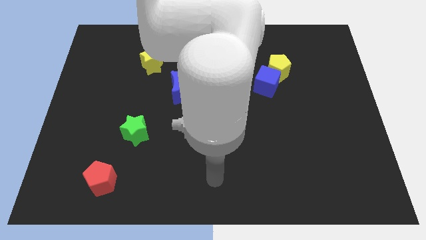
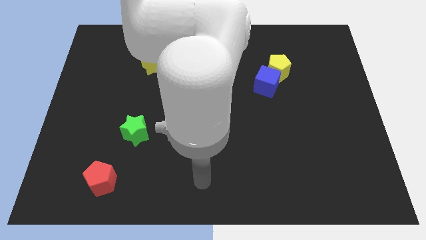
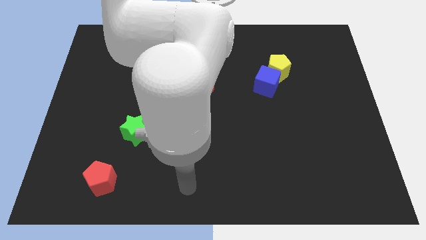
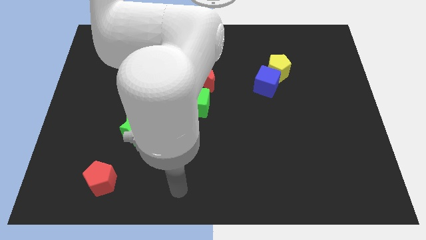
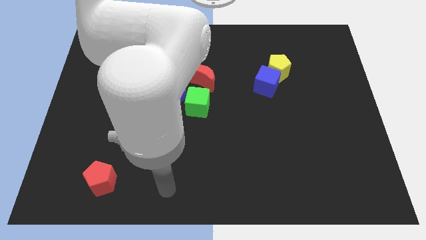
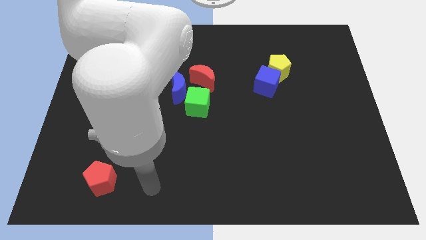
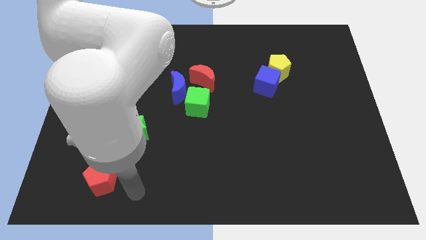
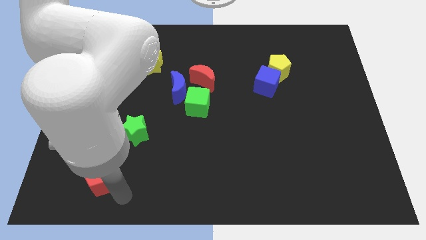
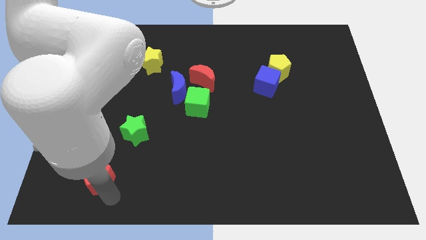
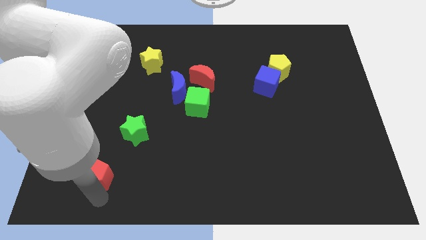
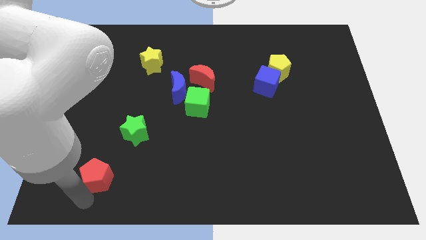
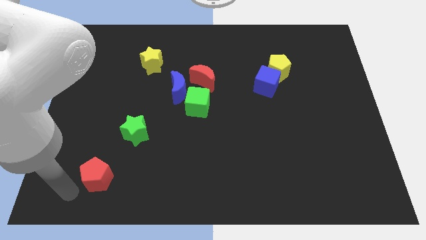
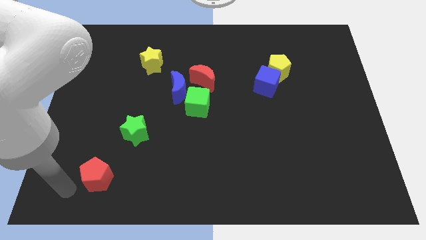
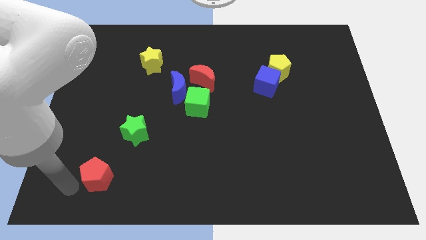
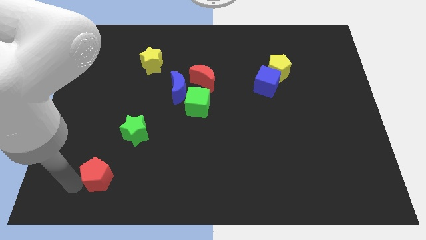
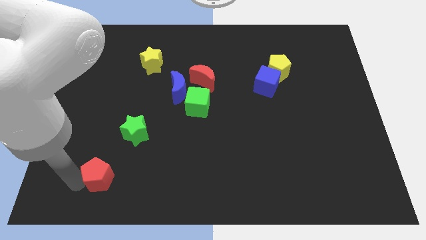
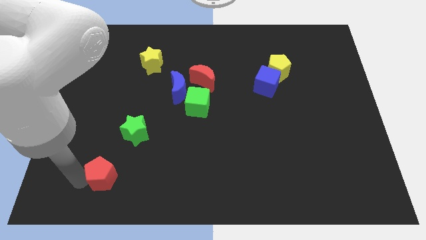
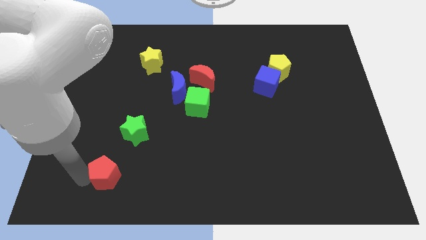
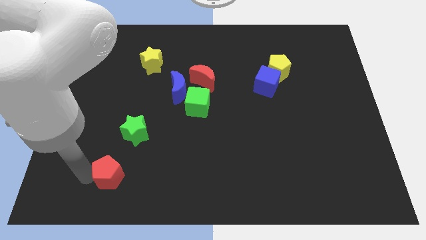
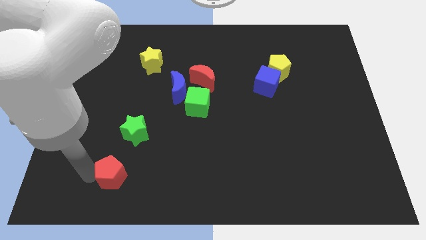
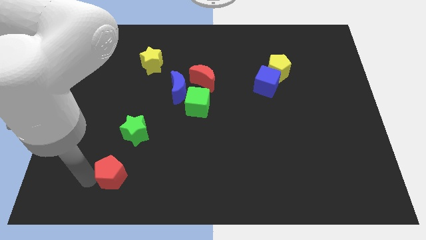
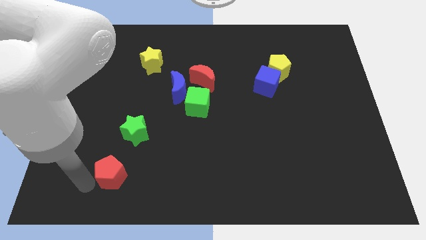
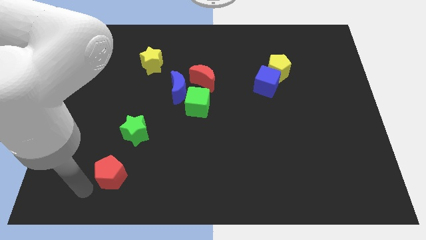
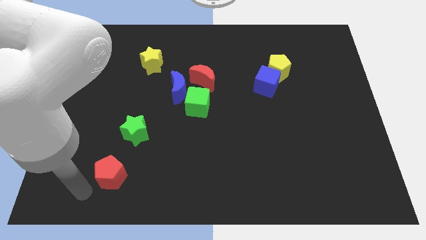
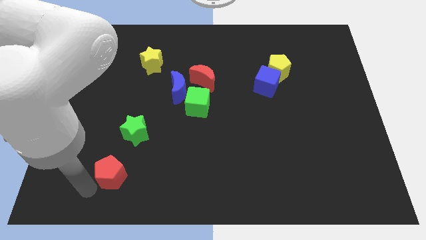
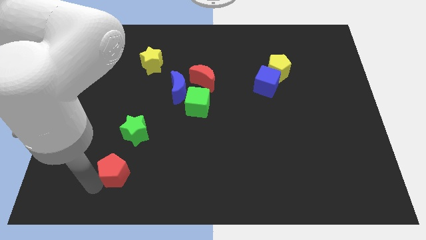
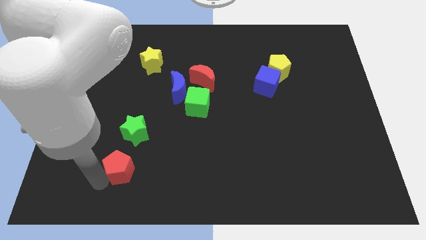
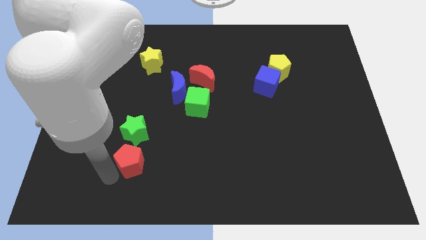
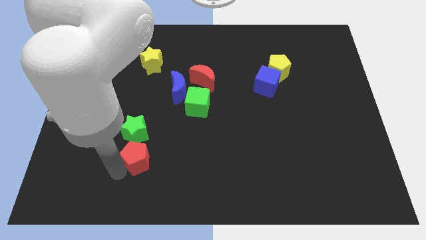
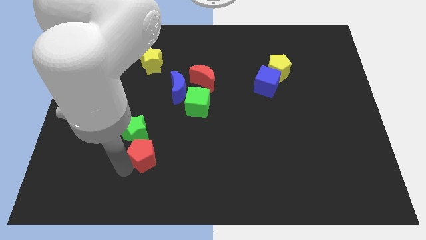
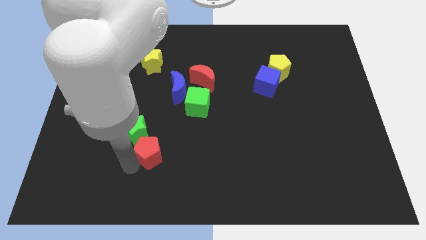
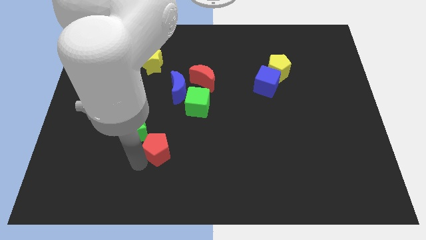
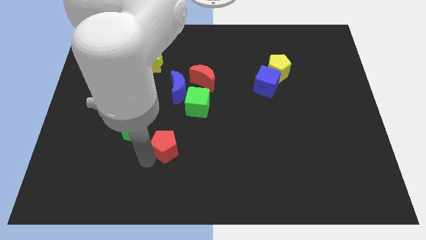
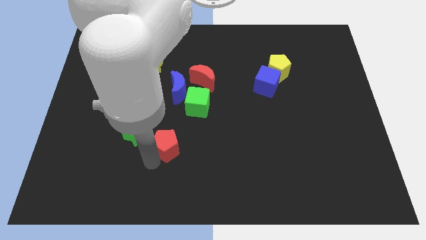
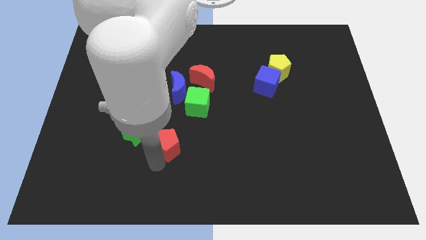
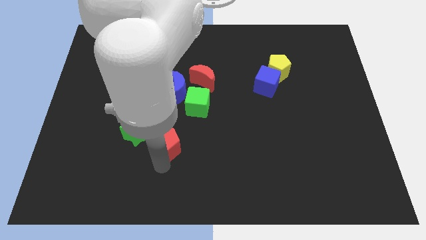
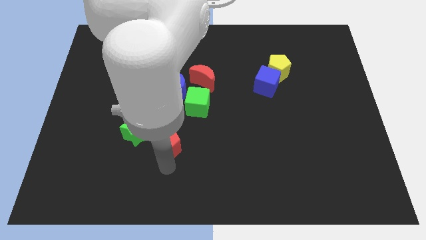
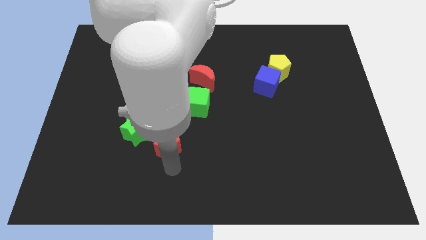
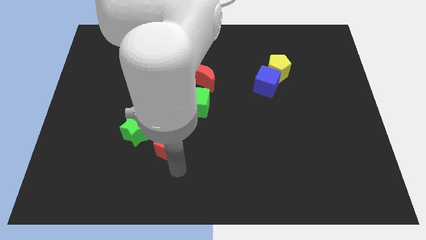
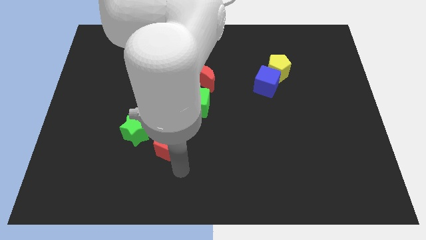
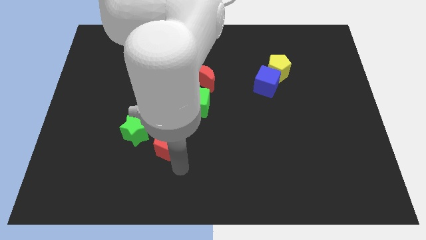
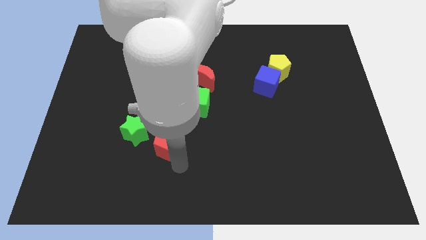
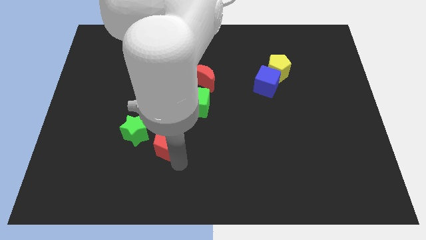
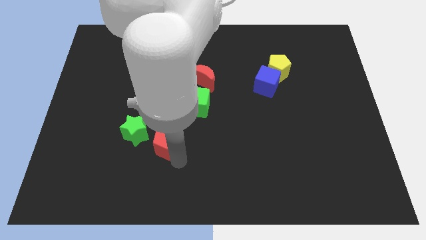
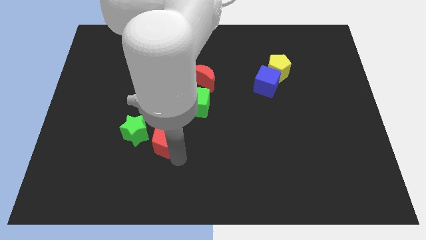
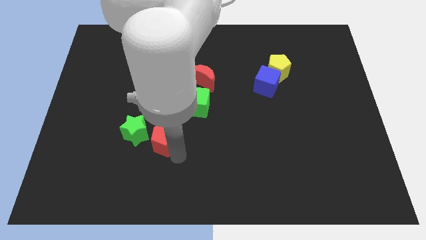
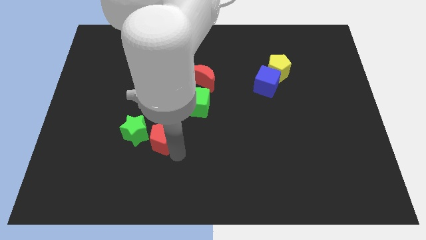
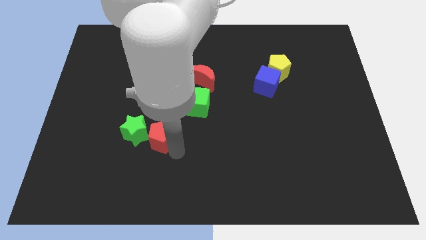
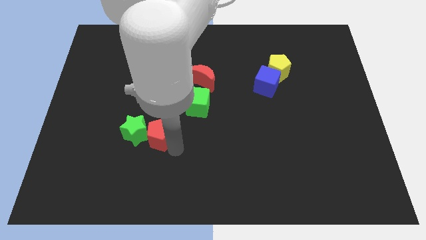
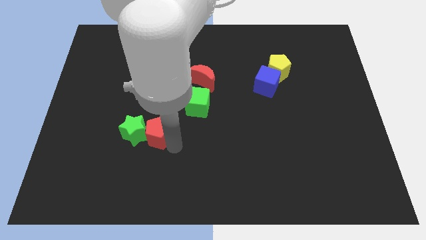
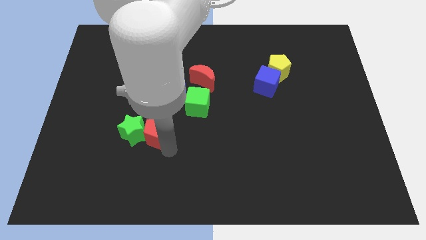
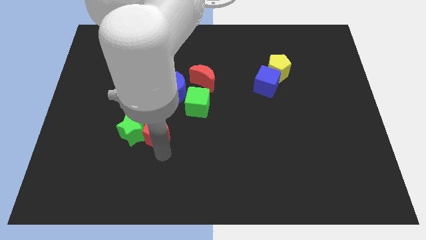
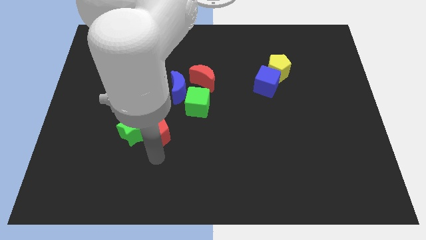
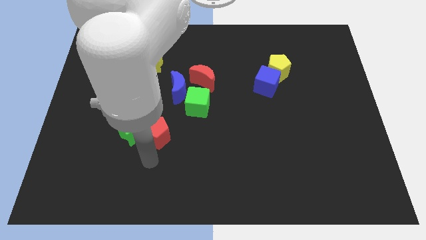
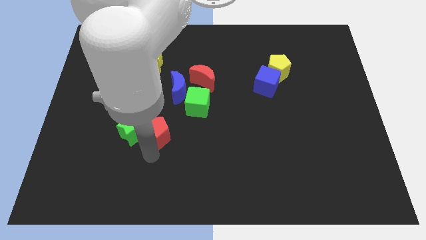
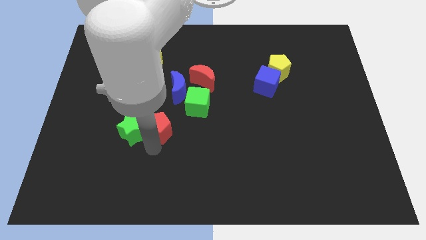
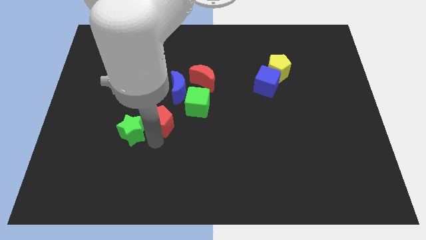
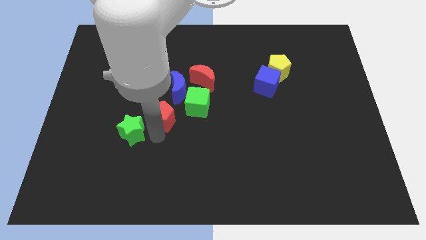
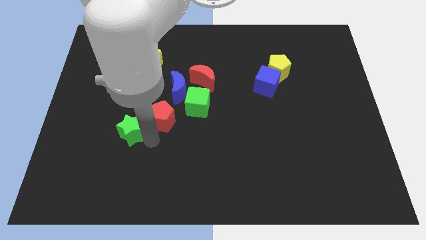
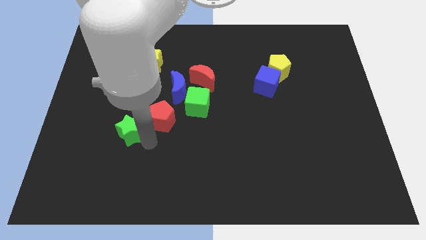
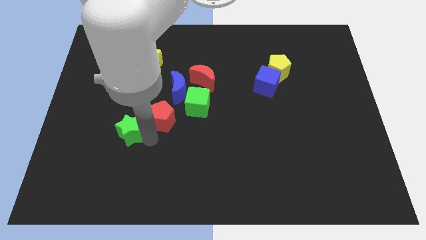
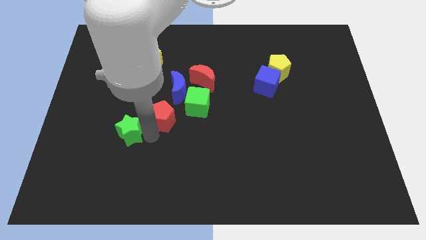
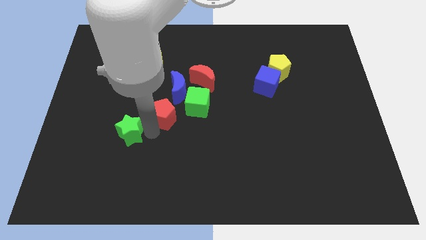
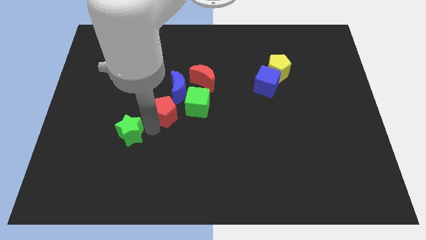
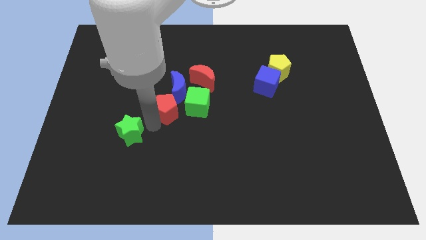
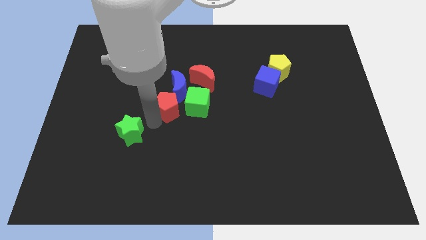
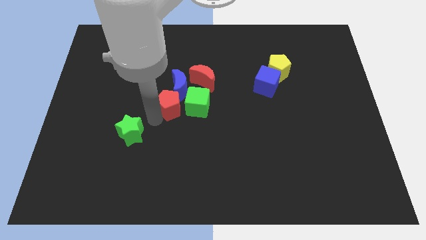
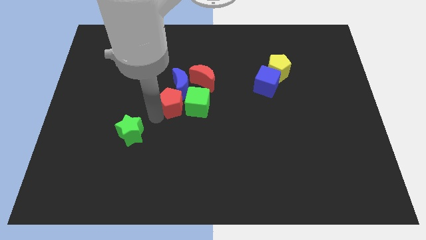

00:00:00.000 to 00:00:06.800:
push the red pentagon next to the blue moon
